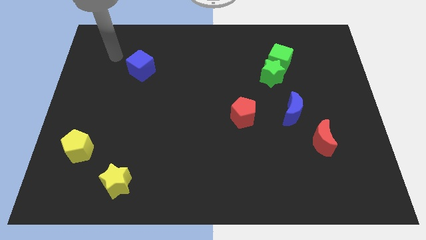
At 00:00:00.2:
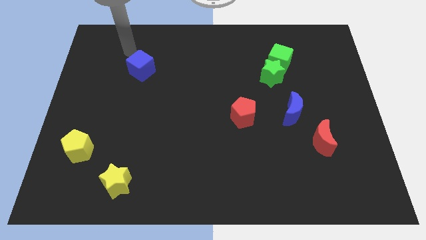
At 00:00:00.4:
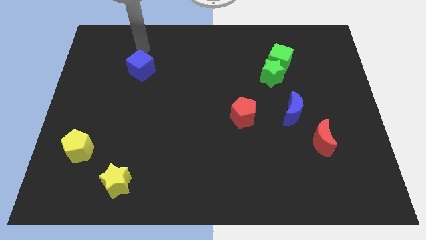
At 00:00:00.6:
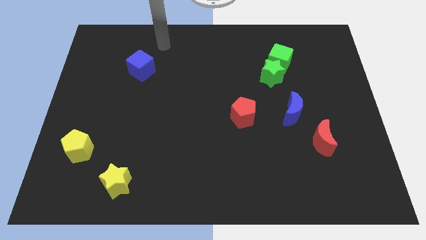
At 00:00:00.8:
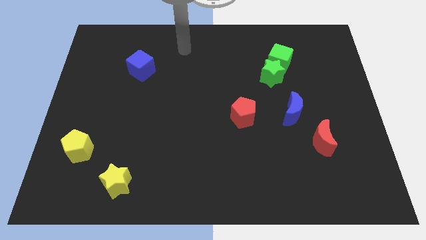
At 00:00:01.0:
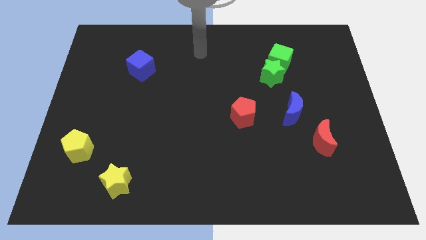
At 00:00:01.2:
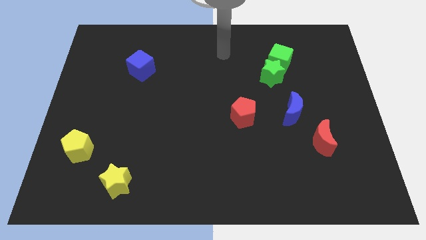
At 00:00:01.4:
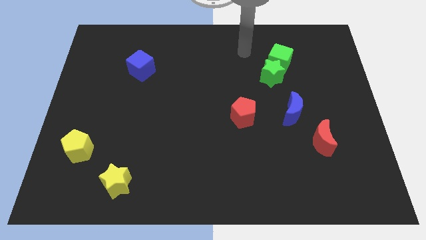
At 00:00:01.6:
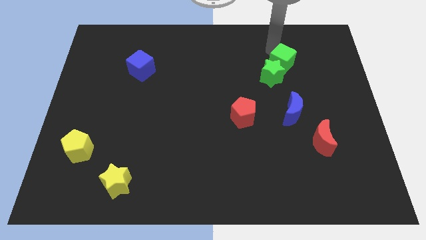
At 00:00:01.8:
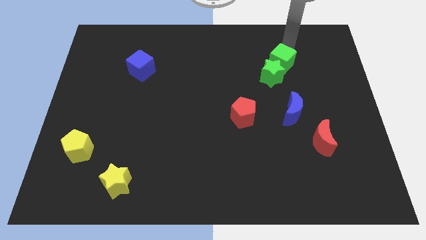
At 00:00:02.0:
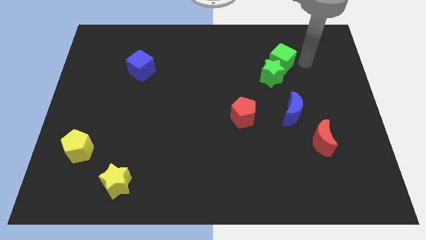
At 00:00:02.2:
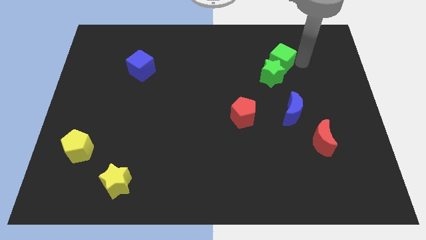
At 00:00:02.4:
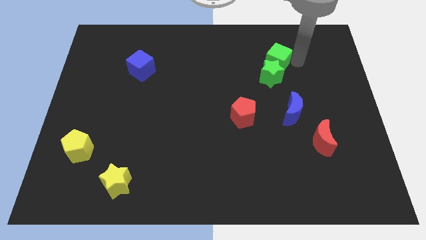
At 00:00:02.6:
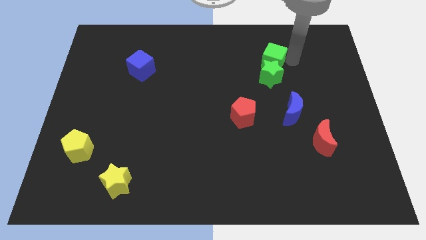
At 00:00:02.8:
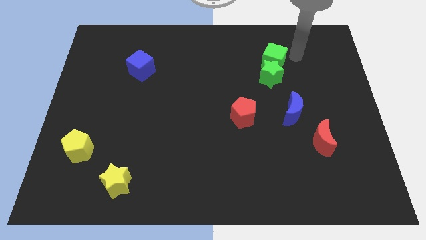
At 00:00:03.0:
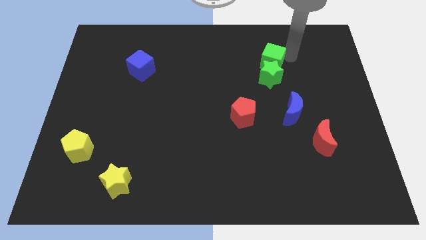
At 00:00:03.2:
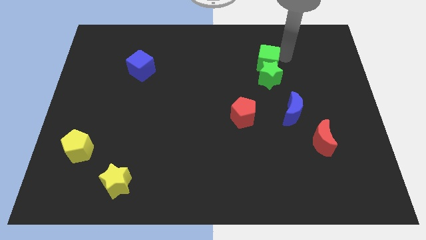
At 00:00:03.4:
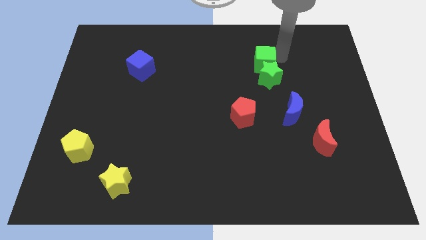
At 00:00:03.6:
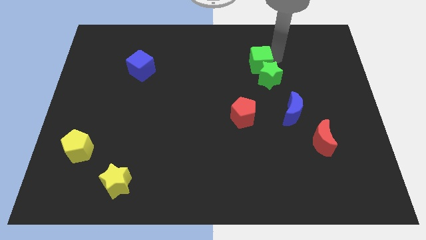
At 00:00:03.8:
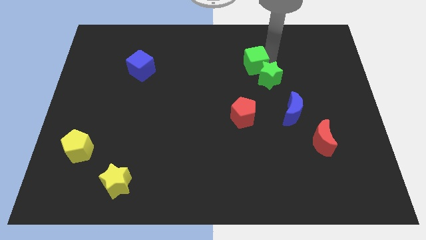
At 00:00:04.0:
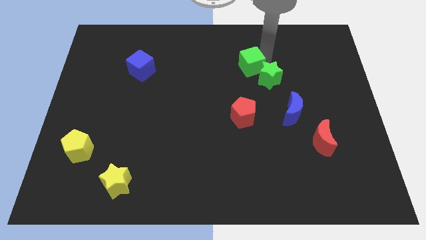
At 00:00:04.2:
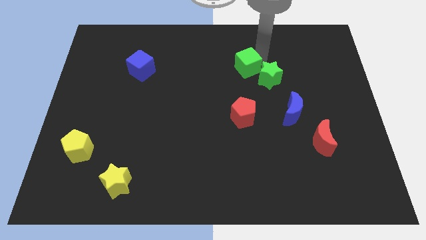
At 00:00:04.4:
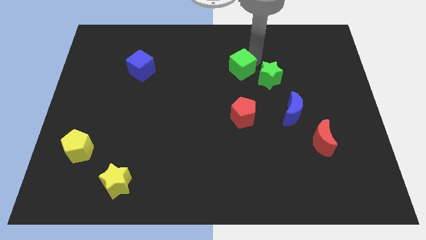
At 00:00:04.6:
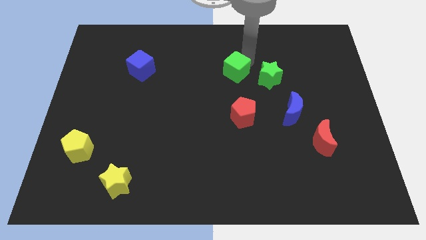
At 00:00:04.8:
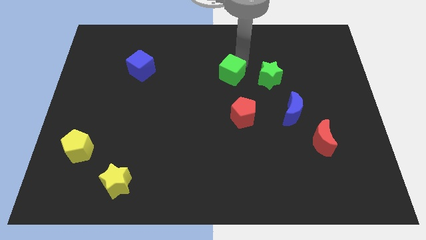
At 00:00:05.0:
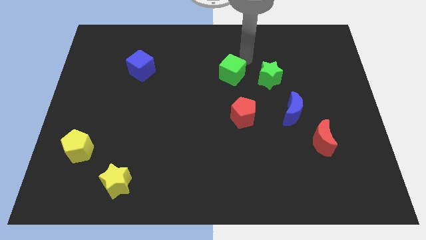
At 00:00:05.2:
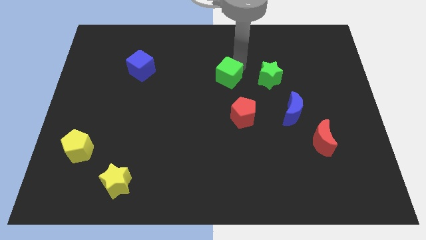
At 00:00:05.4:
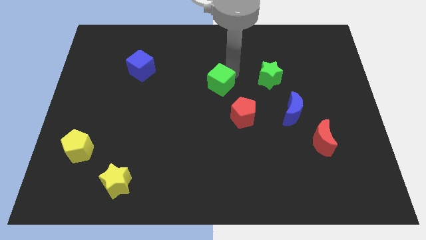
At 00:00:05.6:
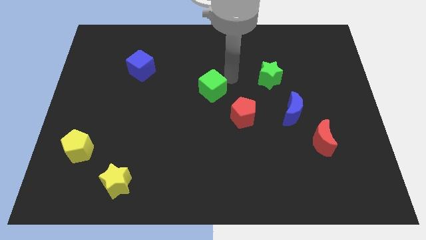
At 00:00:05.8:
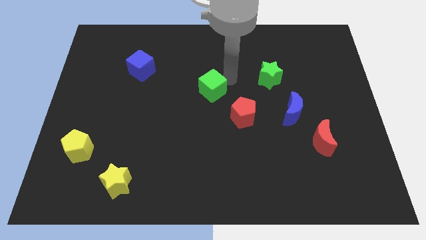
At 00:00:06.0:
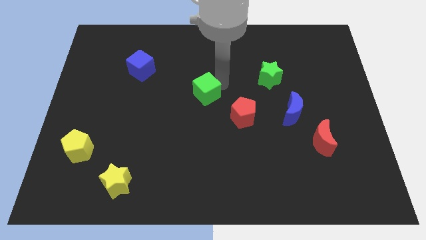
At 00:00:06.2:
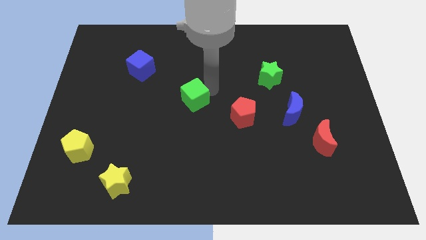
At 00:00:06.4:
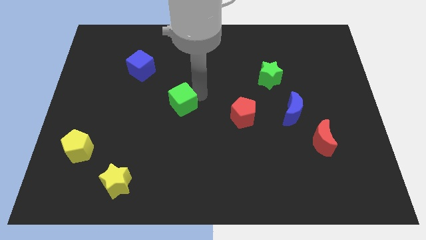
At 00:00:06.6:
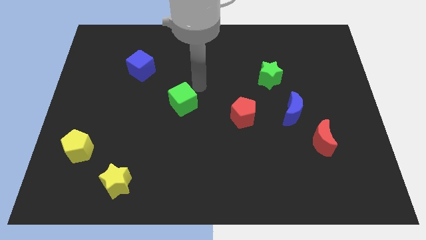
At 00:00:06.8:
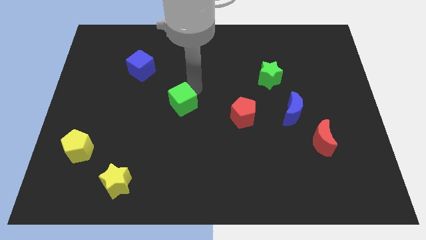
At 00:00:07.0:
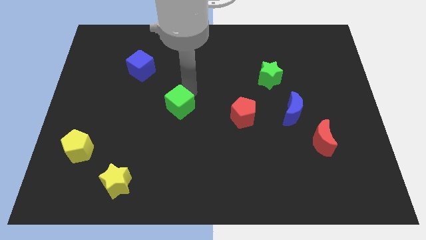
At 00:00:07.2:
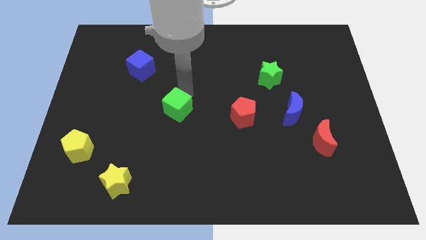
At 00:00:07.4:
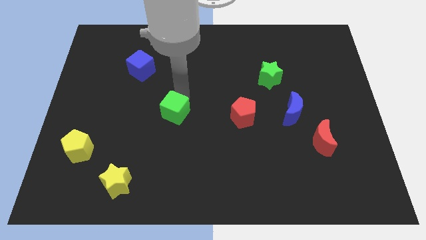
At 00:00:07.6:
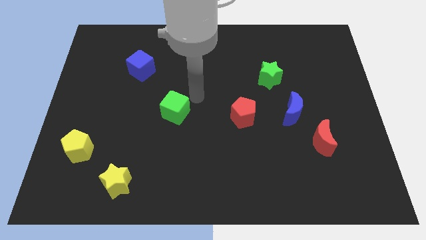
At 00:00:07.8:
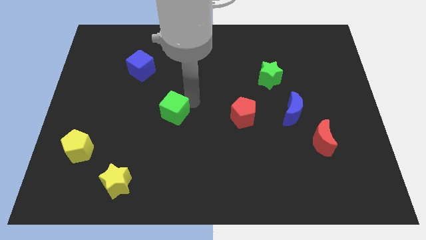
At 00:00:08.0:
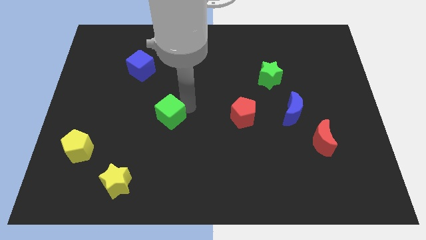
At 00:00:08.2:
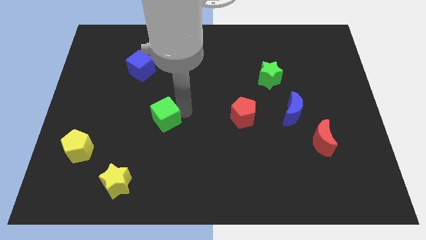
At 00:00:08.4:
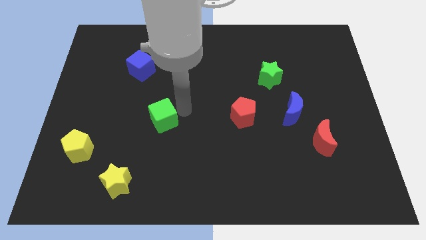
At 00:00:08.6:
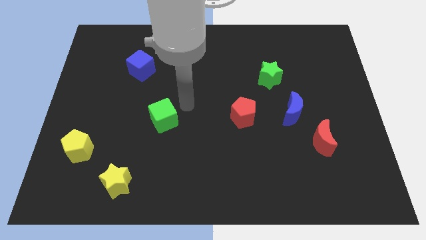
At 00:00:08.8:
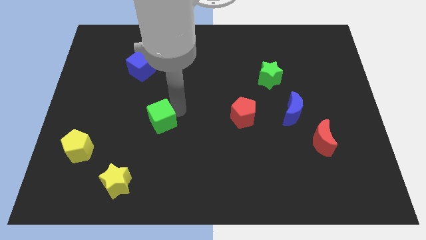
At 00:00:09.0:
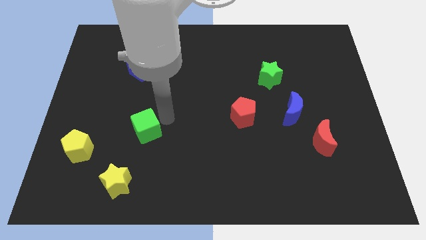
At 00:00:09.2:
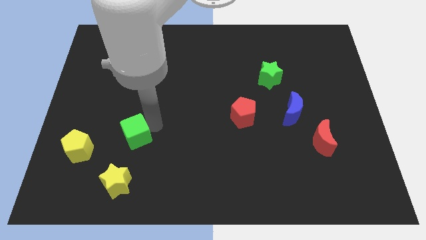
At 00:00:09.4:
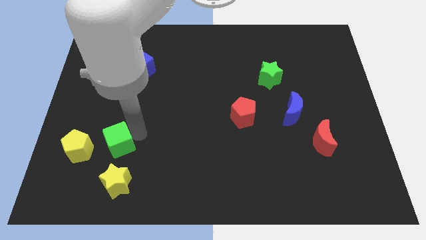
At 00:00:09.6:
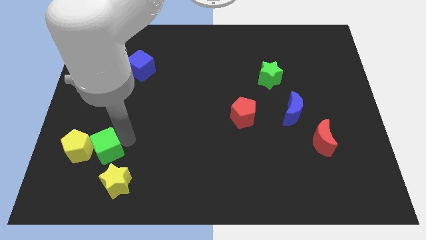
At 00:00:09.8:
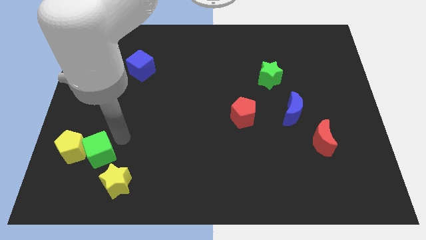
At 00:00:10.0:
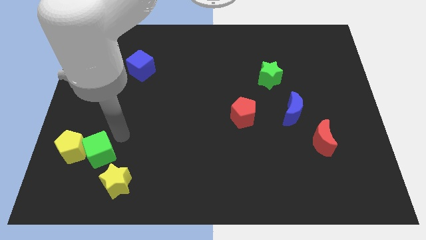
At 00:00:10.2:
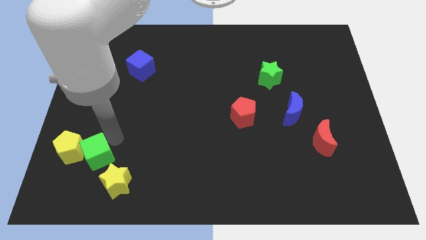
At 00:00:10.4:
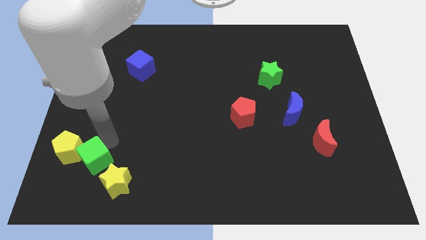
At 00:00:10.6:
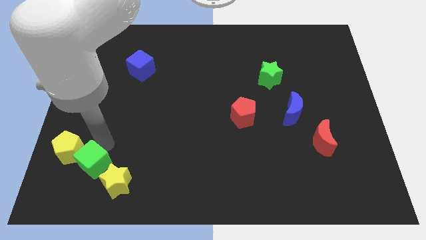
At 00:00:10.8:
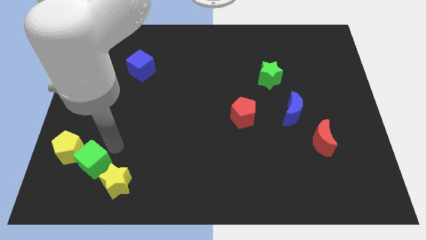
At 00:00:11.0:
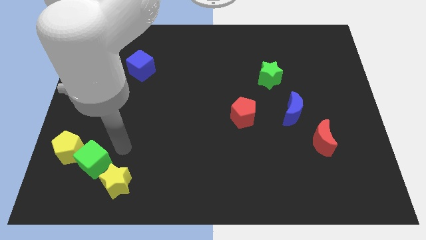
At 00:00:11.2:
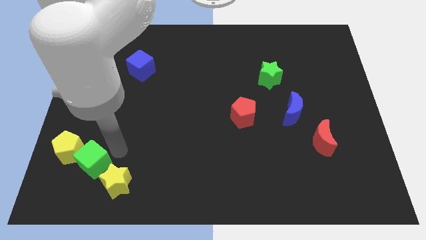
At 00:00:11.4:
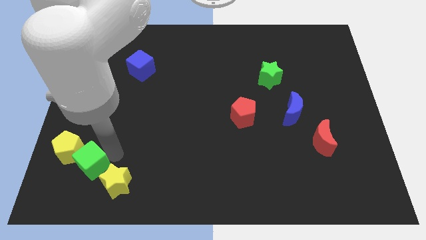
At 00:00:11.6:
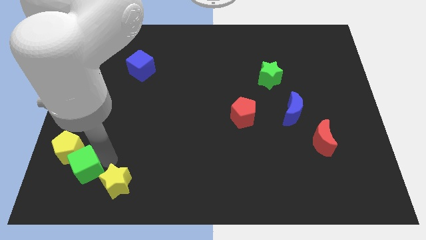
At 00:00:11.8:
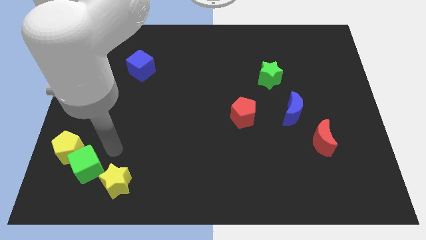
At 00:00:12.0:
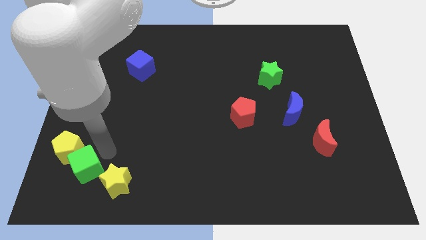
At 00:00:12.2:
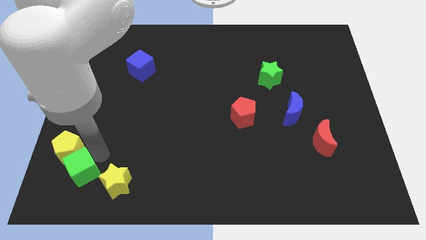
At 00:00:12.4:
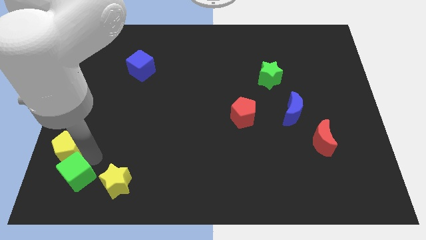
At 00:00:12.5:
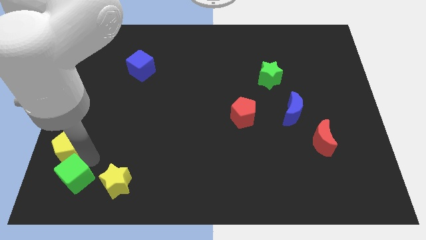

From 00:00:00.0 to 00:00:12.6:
put the green cube to the bottom left

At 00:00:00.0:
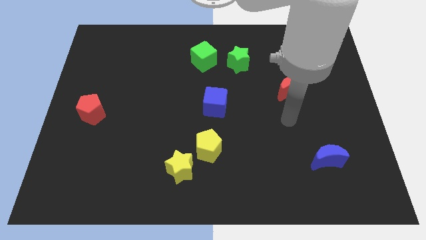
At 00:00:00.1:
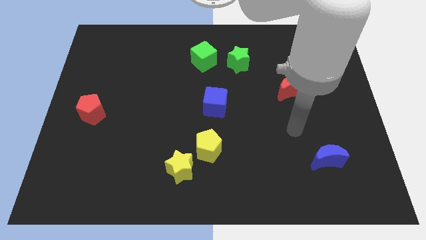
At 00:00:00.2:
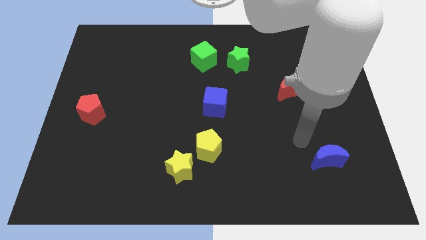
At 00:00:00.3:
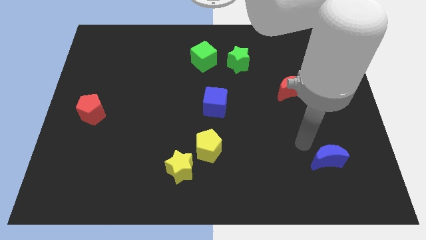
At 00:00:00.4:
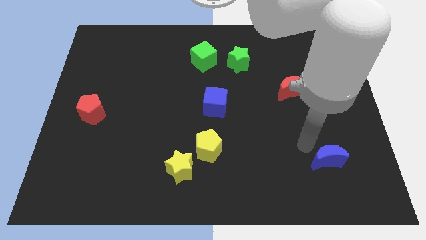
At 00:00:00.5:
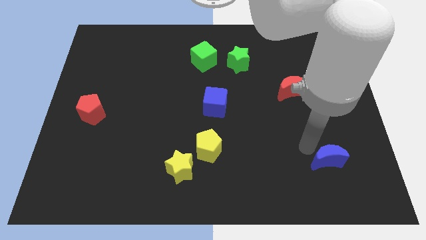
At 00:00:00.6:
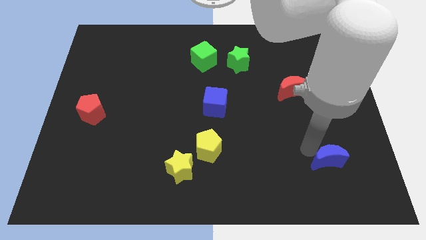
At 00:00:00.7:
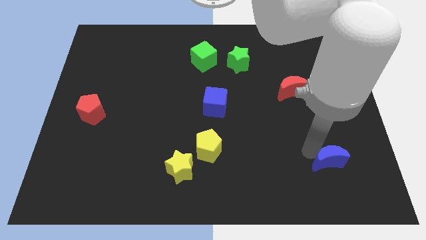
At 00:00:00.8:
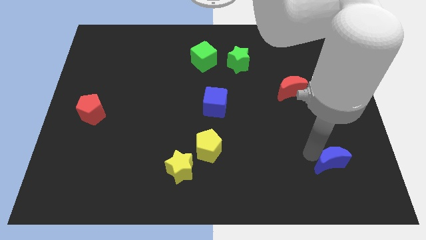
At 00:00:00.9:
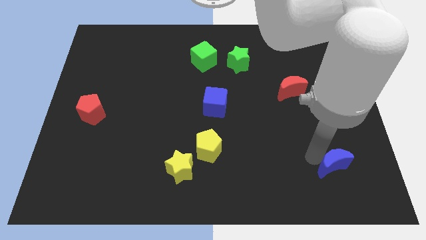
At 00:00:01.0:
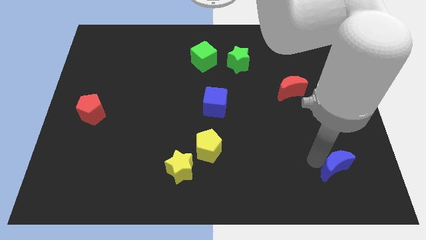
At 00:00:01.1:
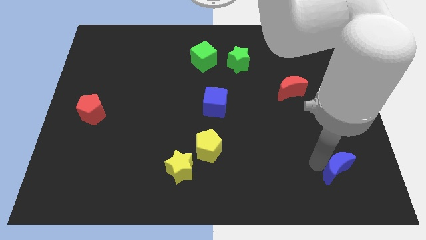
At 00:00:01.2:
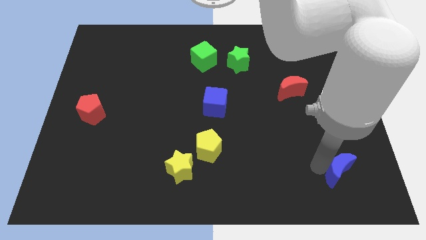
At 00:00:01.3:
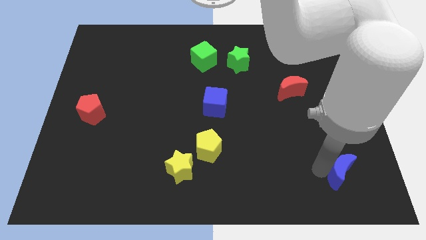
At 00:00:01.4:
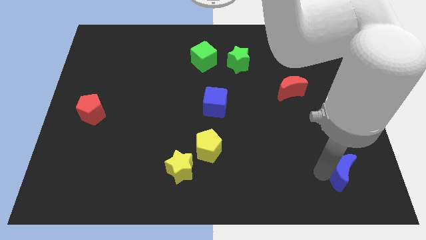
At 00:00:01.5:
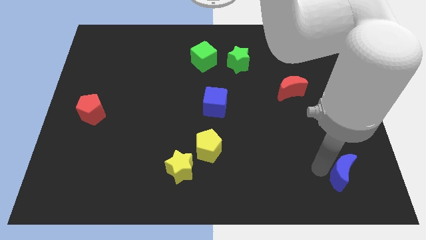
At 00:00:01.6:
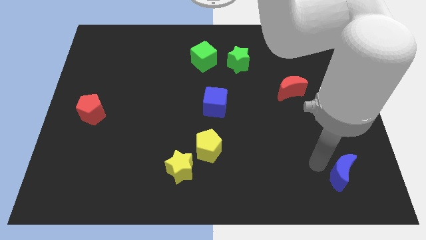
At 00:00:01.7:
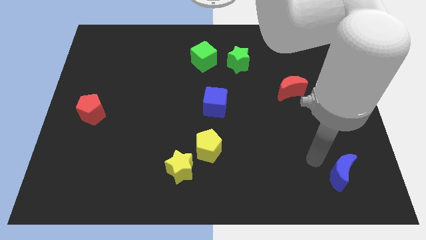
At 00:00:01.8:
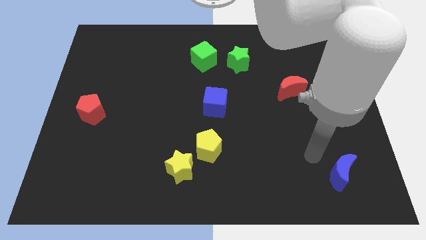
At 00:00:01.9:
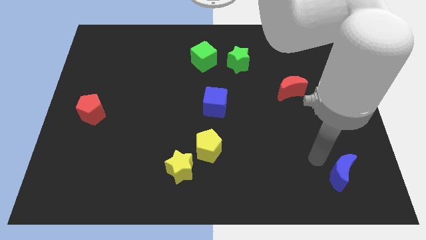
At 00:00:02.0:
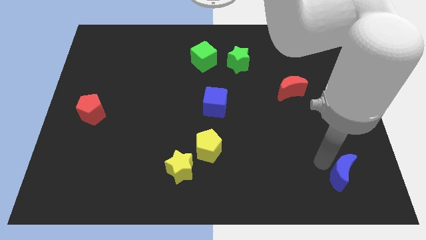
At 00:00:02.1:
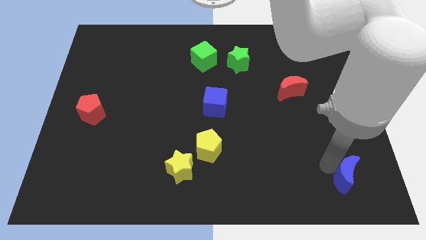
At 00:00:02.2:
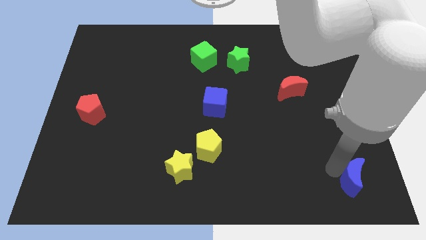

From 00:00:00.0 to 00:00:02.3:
move the blue moon to the bottom right of the board
